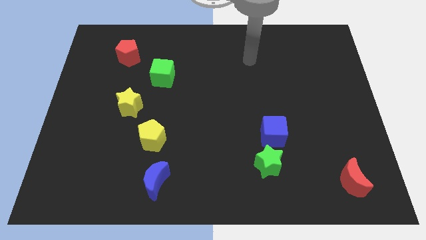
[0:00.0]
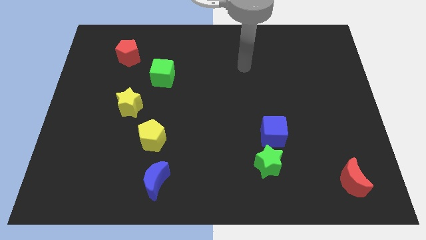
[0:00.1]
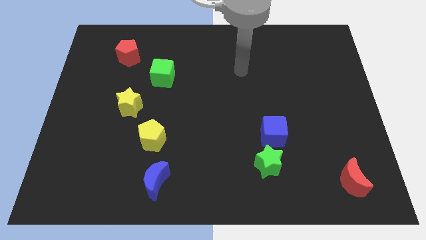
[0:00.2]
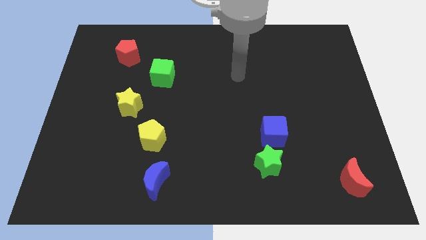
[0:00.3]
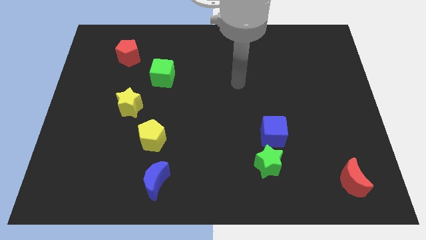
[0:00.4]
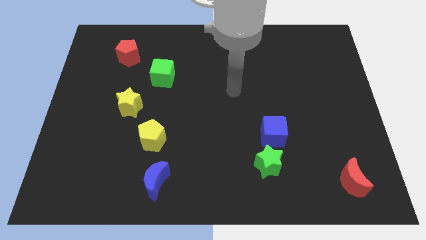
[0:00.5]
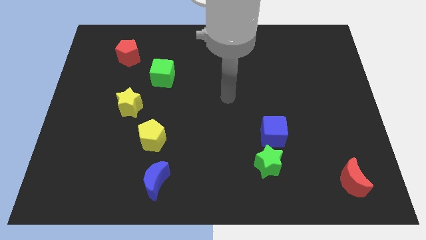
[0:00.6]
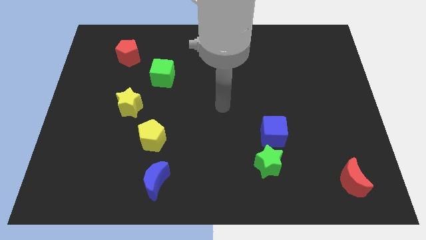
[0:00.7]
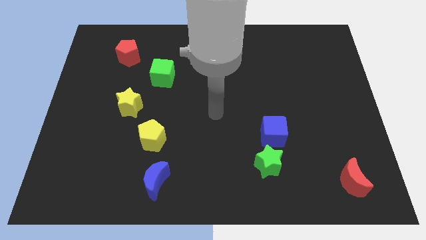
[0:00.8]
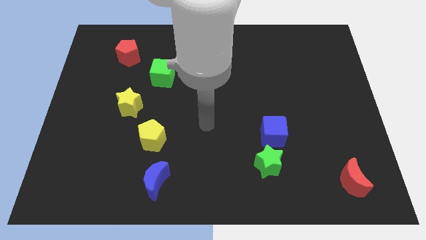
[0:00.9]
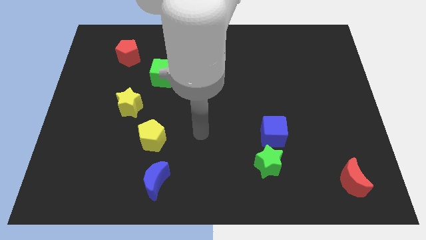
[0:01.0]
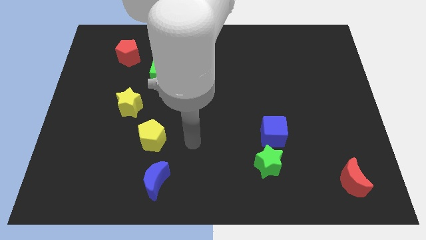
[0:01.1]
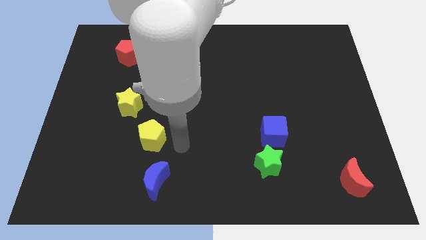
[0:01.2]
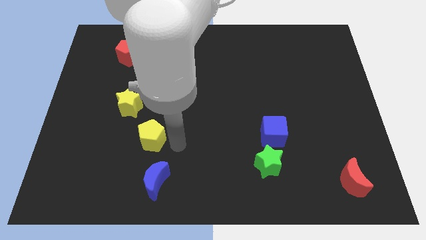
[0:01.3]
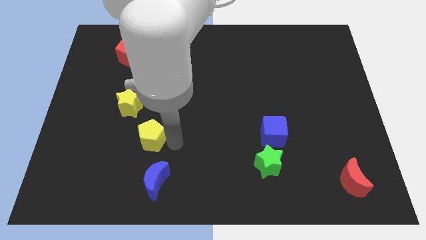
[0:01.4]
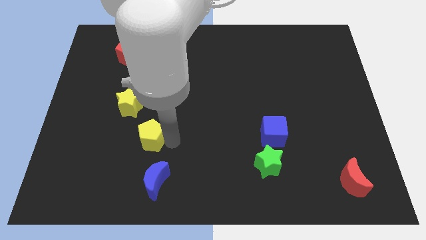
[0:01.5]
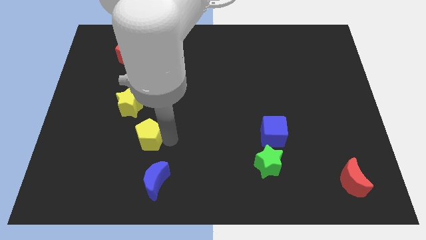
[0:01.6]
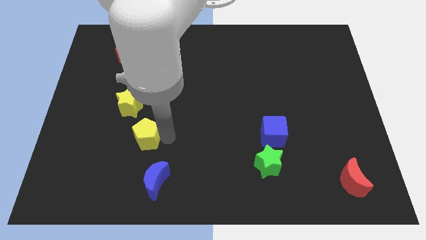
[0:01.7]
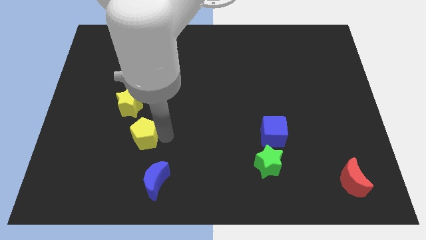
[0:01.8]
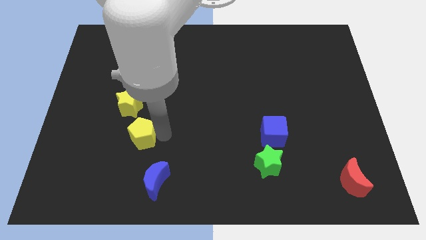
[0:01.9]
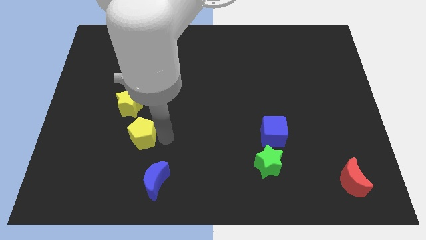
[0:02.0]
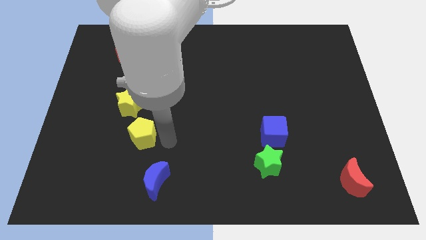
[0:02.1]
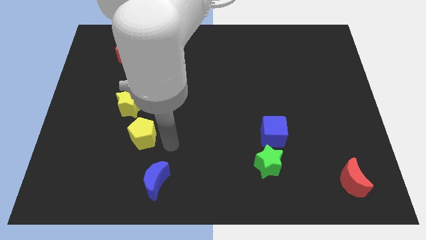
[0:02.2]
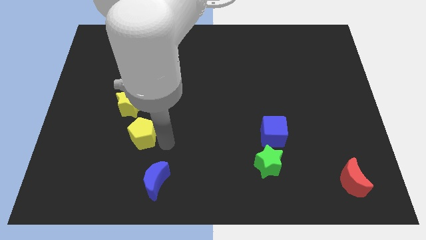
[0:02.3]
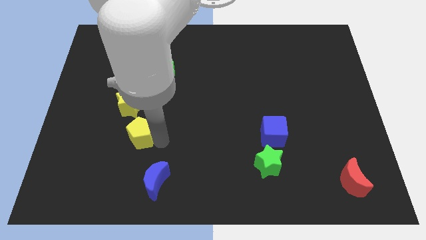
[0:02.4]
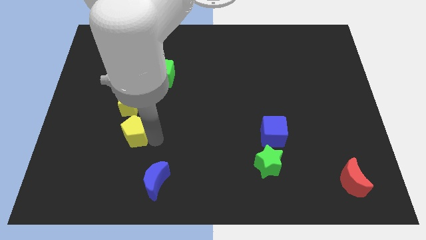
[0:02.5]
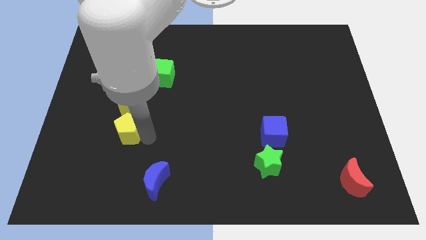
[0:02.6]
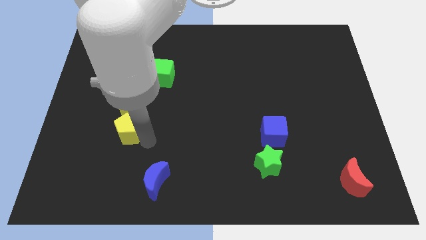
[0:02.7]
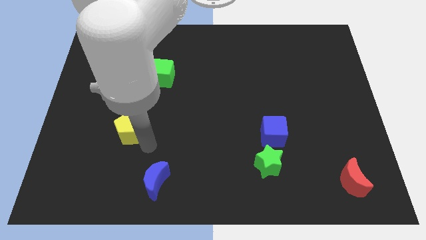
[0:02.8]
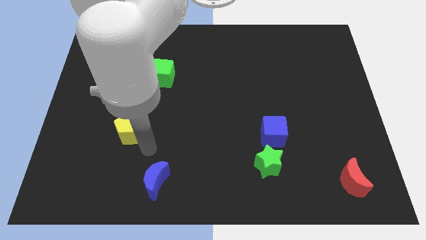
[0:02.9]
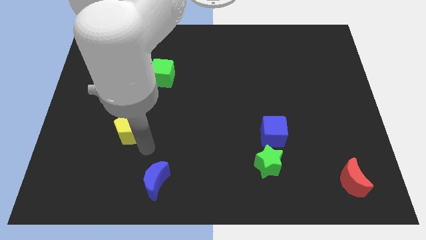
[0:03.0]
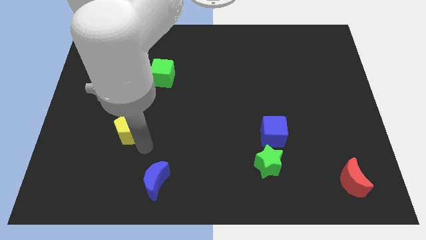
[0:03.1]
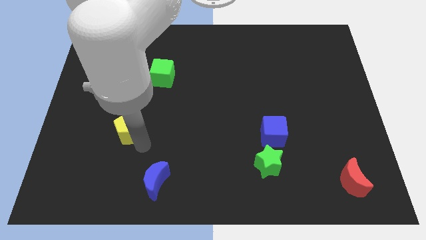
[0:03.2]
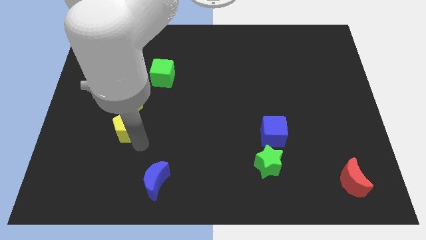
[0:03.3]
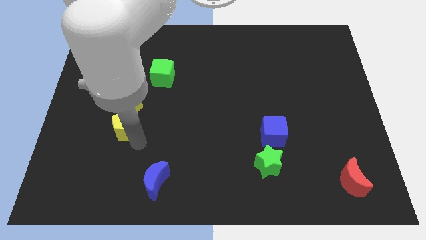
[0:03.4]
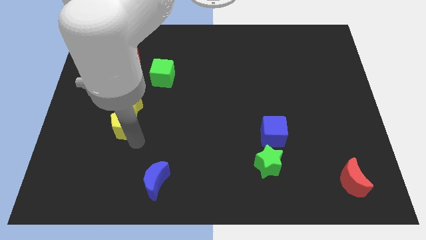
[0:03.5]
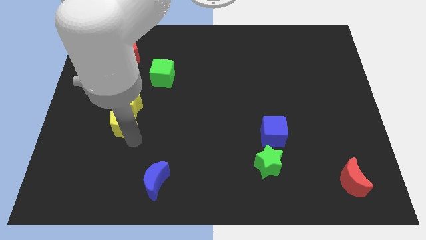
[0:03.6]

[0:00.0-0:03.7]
slide the yellow pentagon slightly up and then left

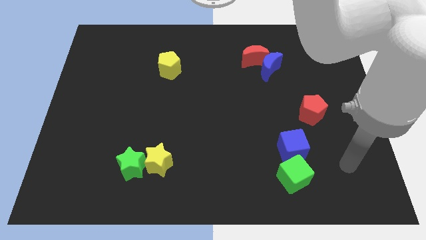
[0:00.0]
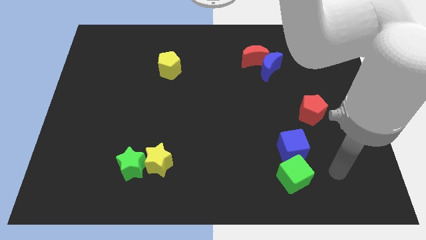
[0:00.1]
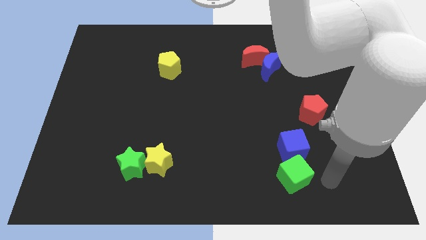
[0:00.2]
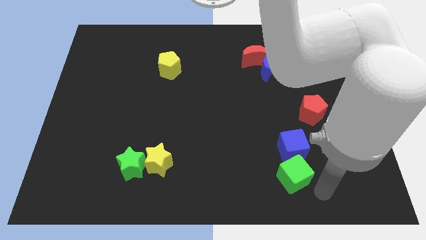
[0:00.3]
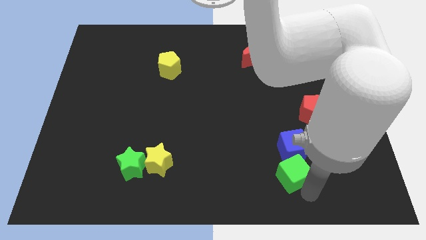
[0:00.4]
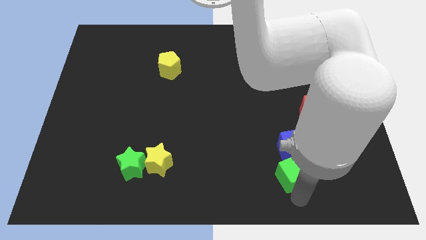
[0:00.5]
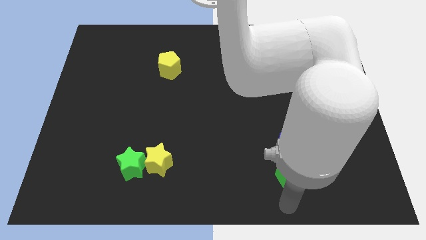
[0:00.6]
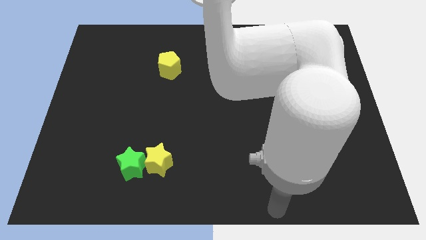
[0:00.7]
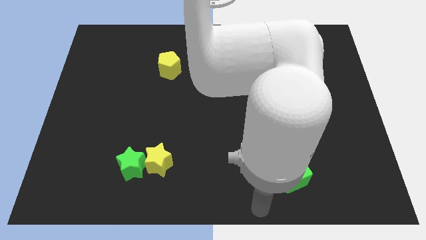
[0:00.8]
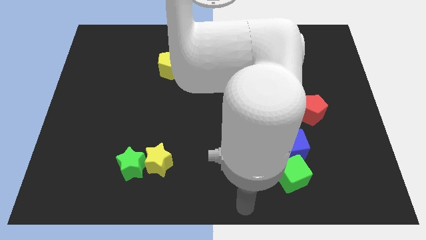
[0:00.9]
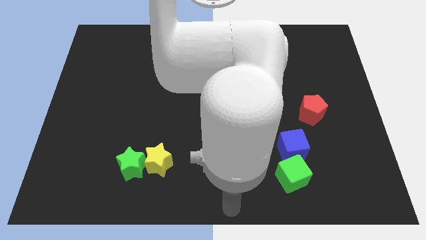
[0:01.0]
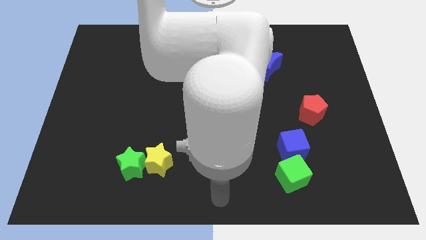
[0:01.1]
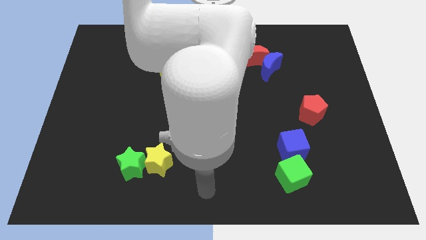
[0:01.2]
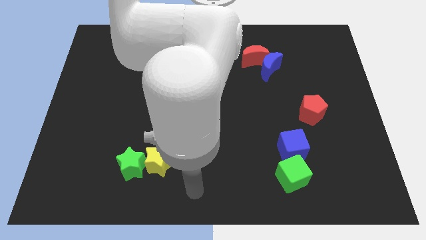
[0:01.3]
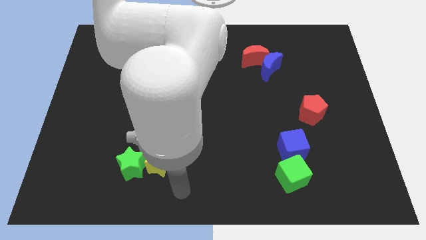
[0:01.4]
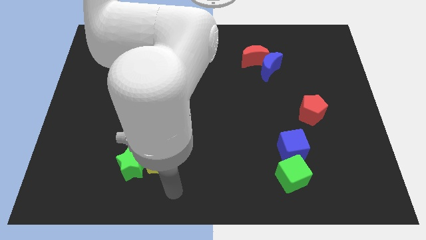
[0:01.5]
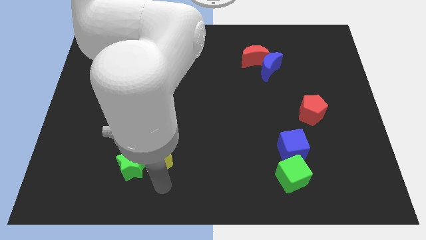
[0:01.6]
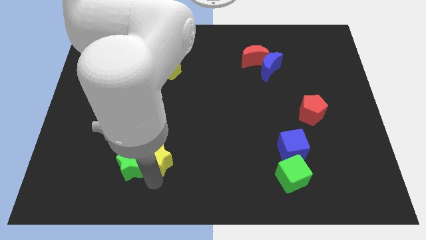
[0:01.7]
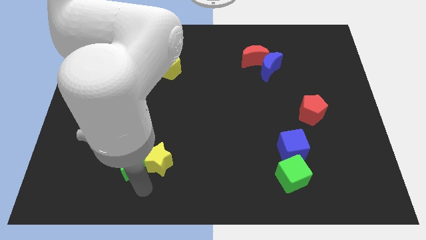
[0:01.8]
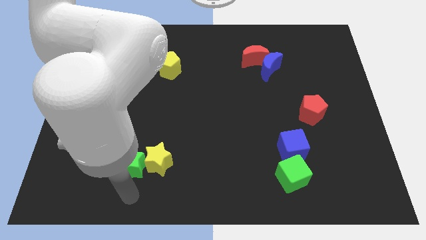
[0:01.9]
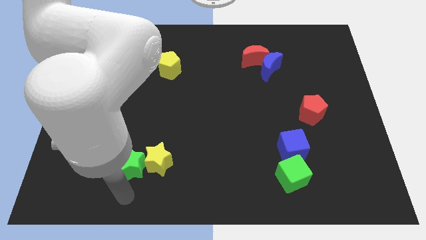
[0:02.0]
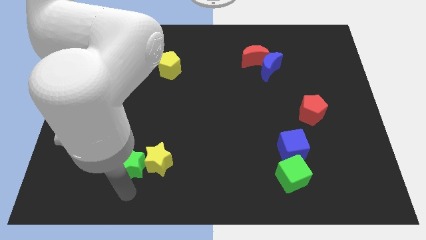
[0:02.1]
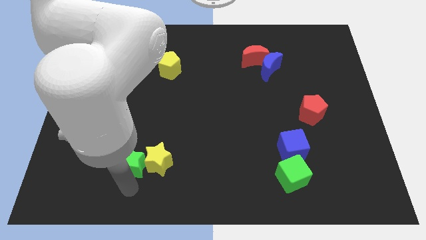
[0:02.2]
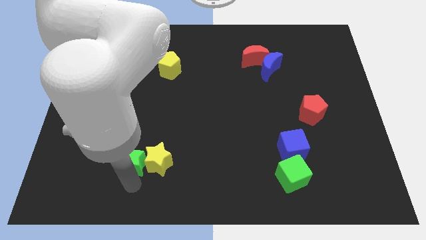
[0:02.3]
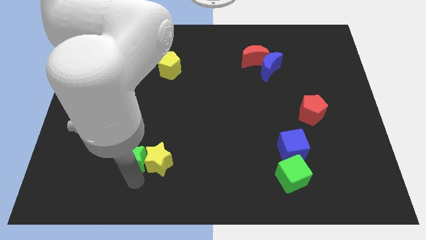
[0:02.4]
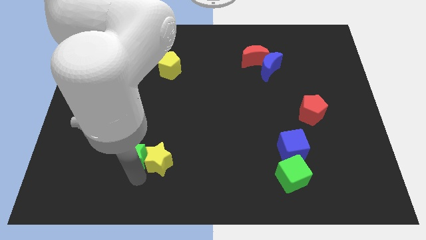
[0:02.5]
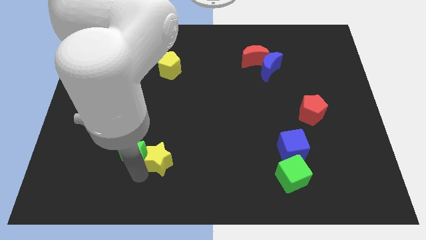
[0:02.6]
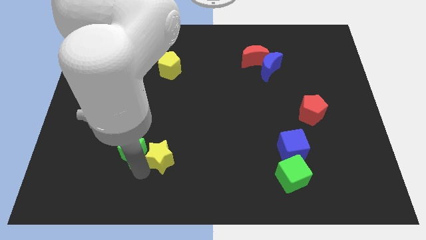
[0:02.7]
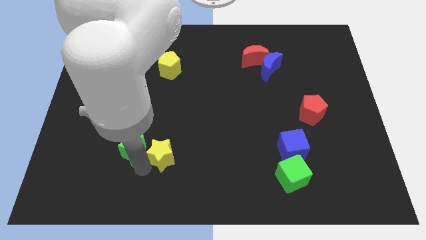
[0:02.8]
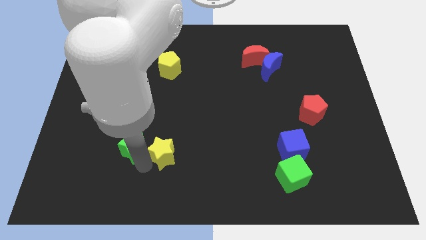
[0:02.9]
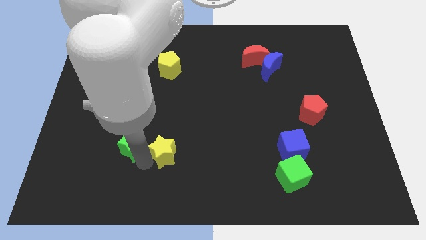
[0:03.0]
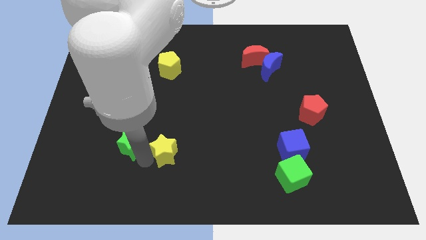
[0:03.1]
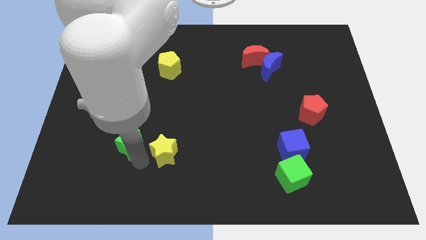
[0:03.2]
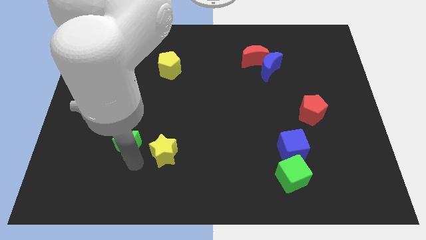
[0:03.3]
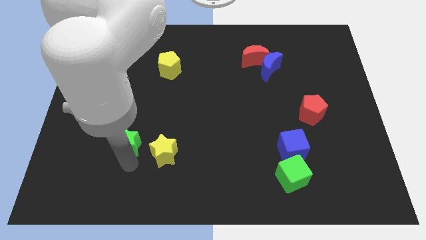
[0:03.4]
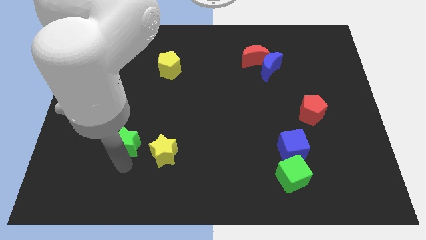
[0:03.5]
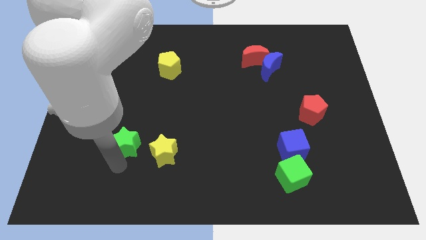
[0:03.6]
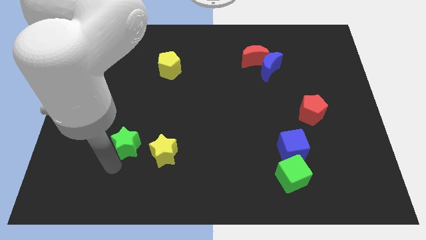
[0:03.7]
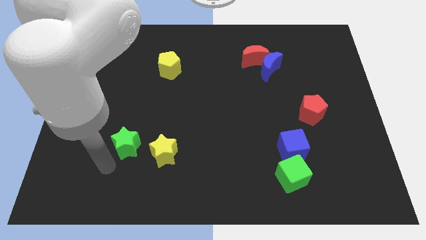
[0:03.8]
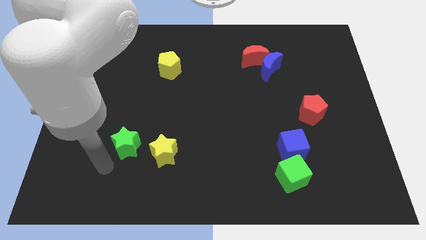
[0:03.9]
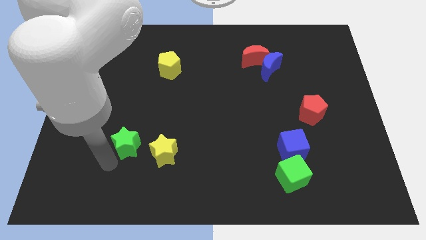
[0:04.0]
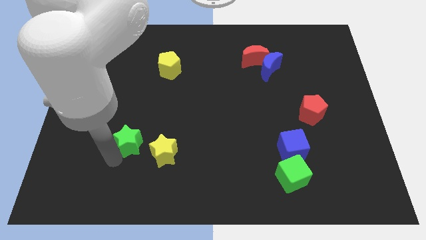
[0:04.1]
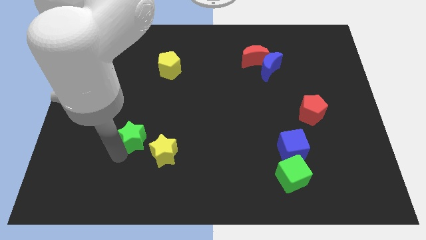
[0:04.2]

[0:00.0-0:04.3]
move the green star up a bit
